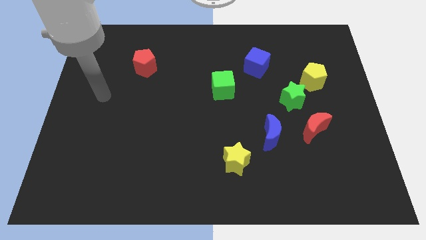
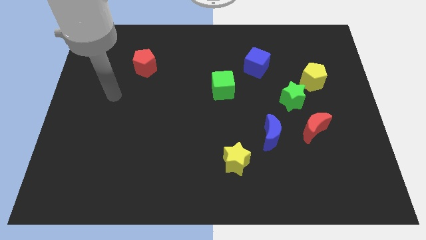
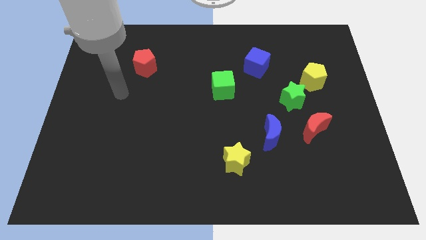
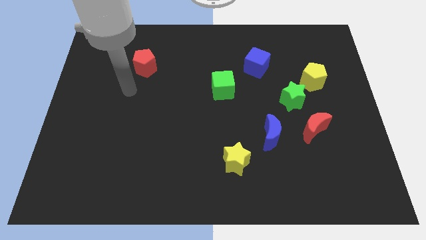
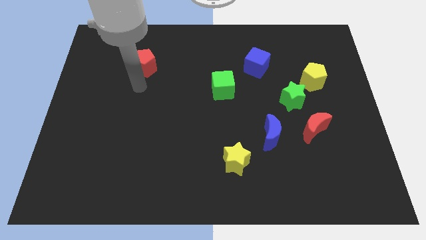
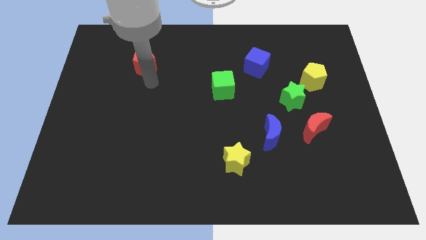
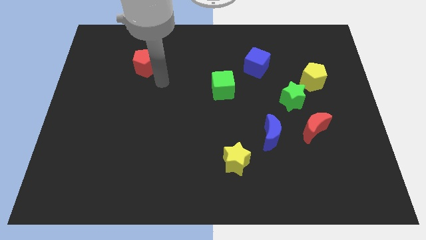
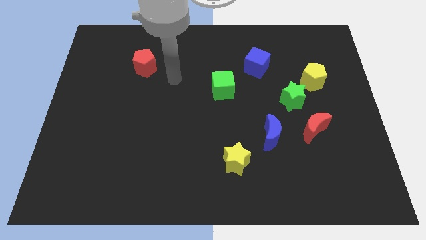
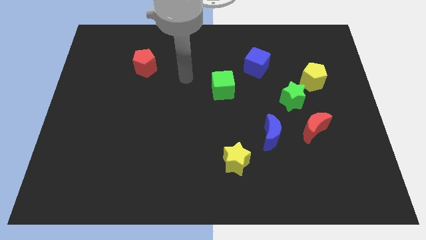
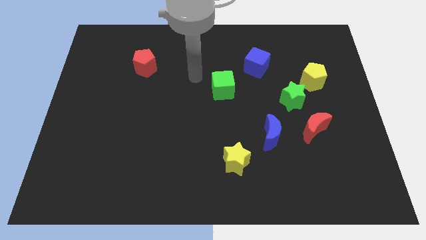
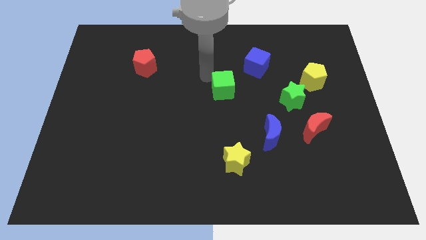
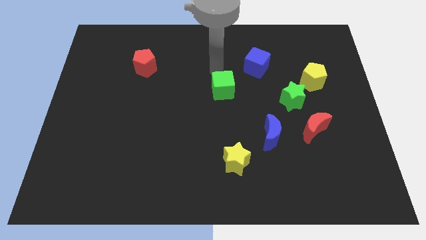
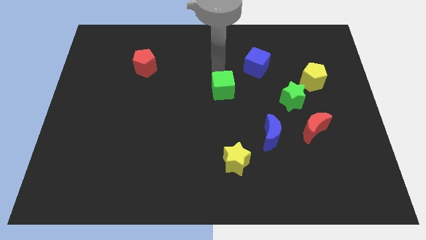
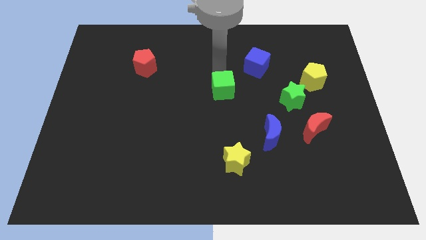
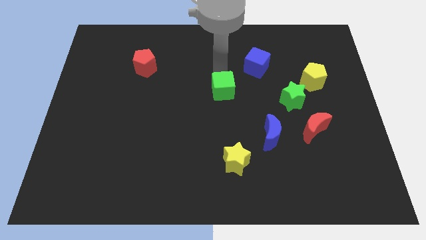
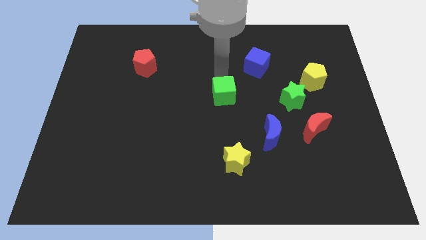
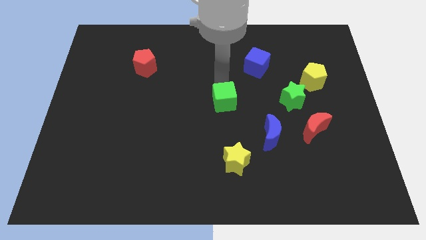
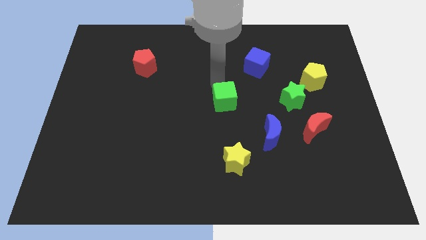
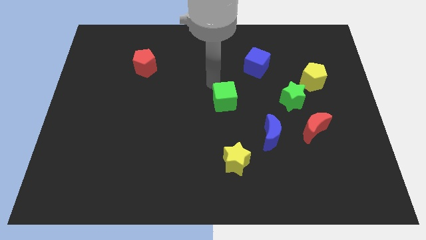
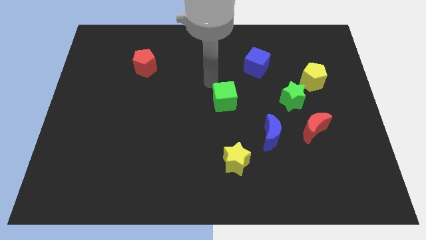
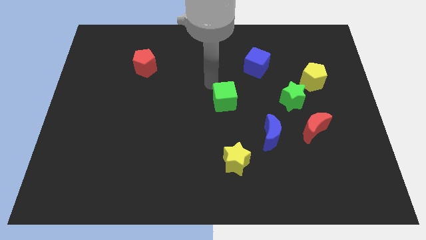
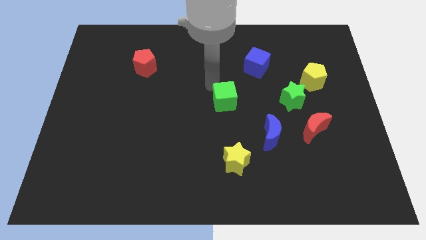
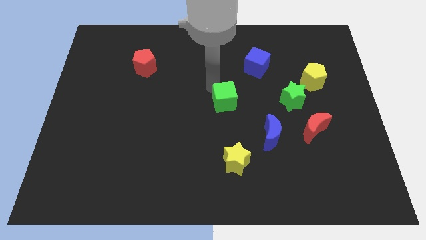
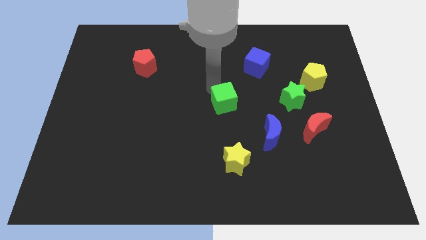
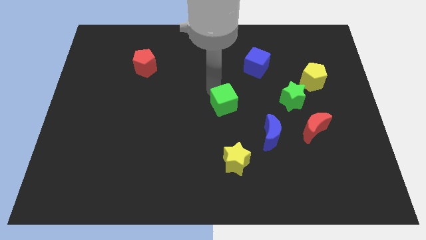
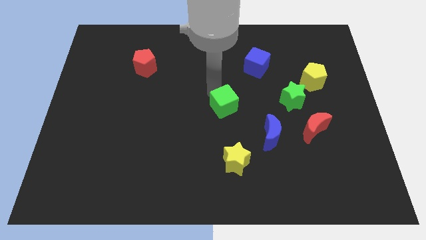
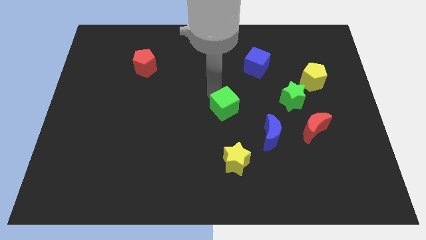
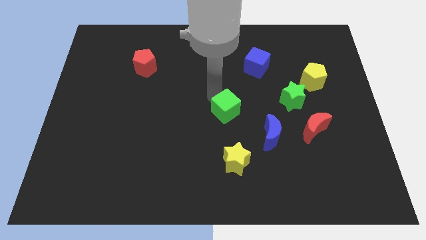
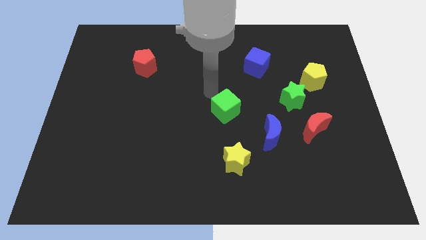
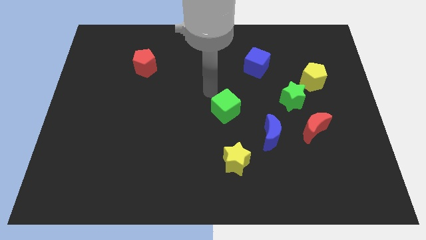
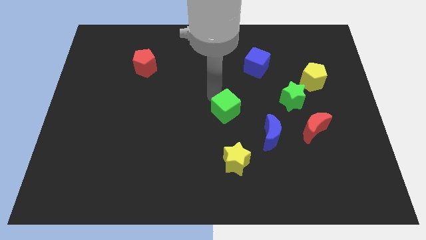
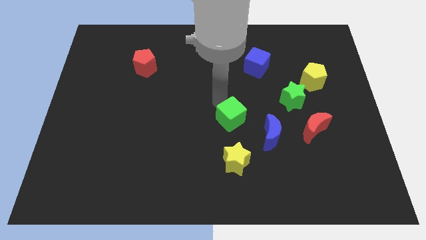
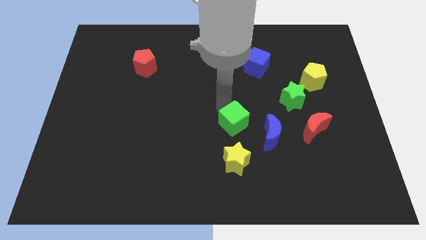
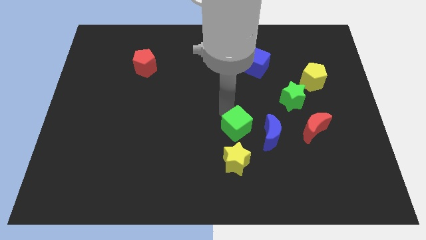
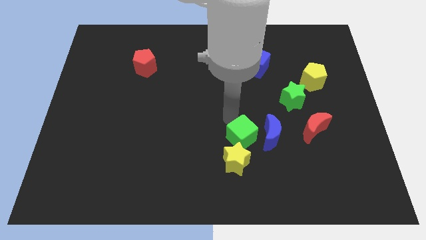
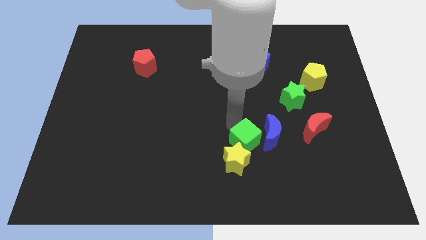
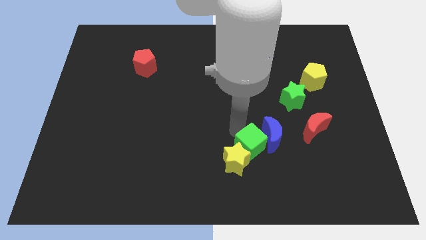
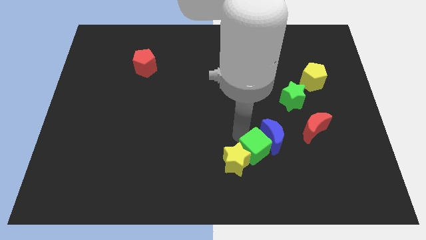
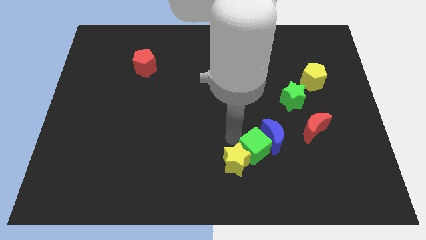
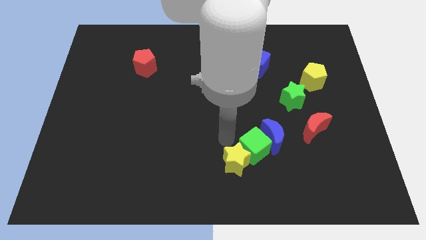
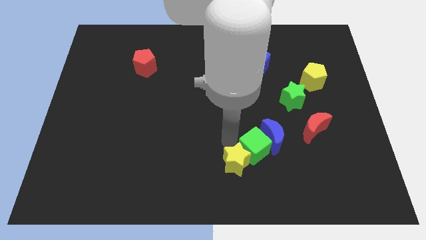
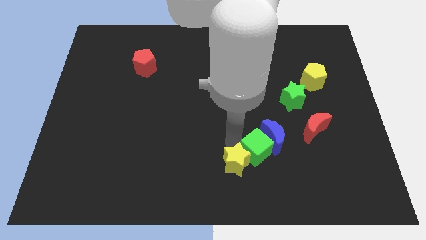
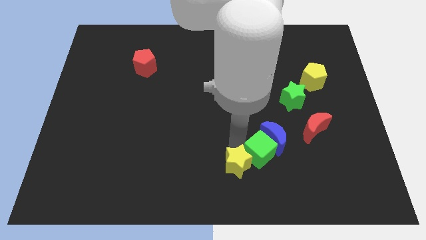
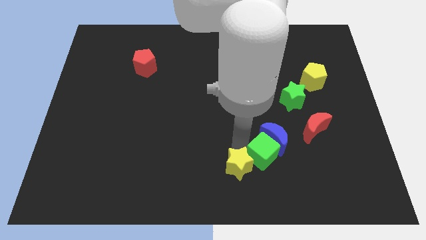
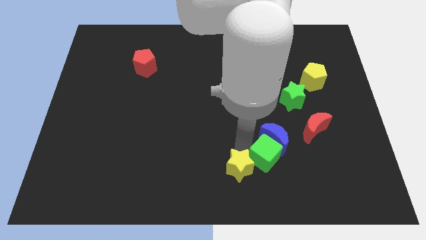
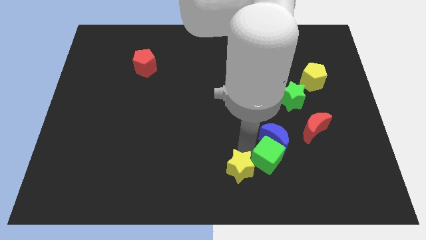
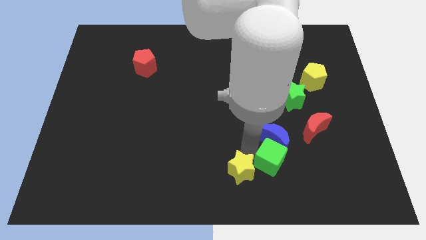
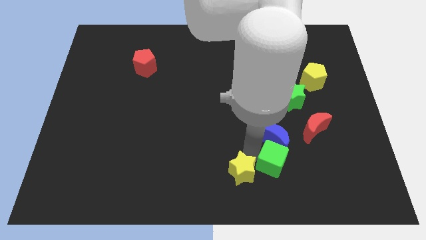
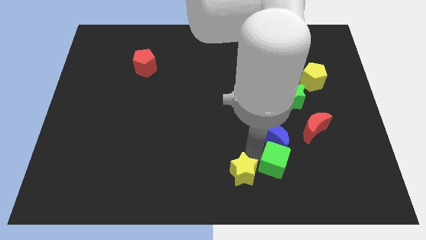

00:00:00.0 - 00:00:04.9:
move the green cube downwards and then right

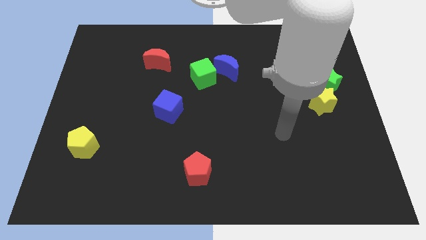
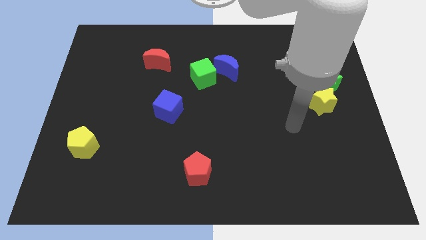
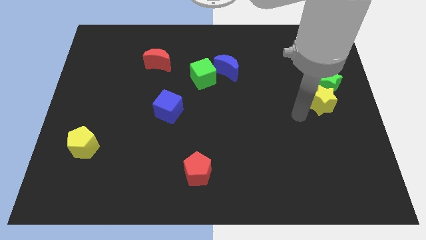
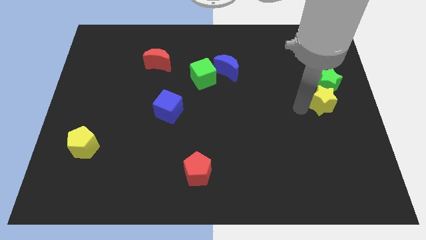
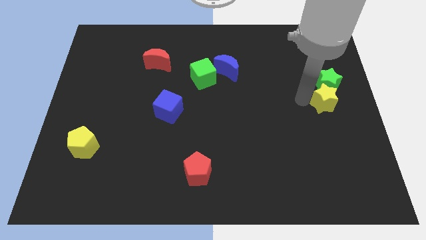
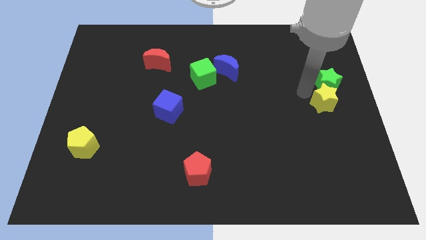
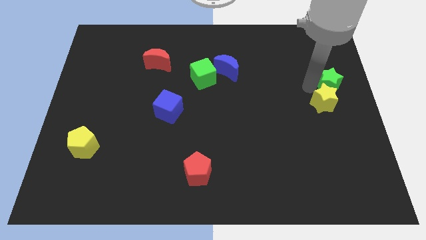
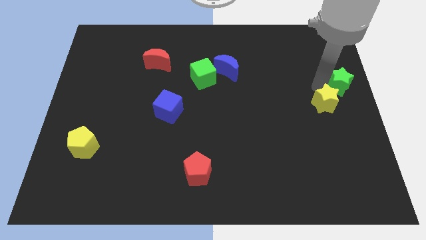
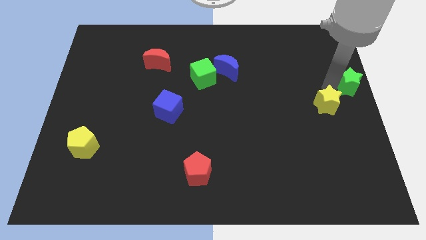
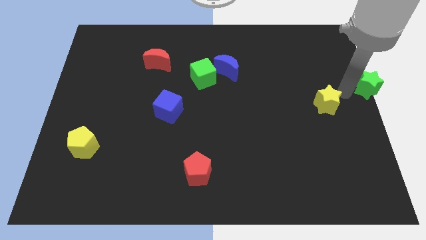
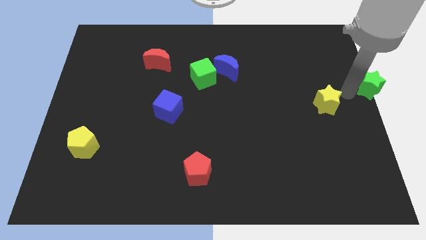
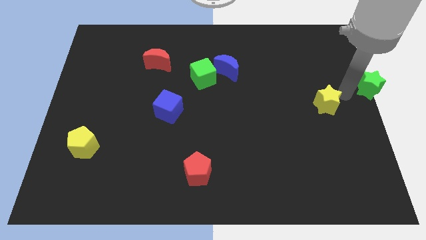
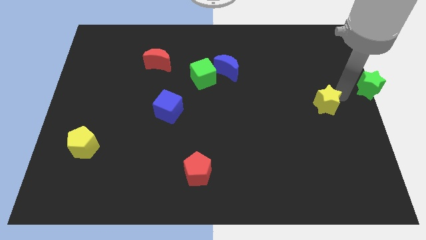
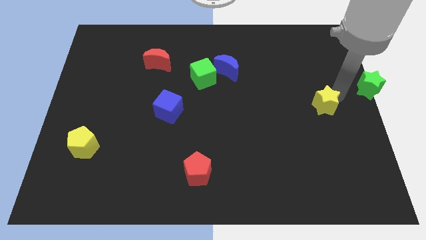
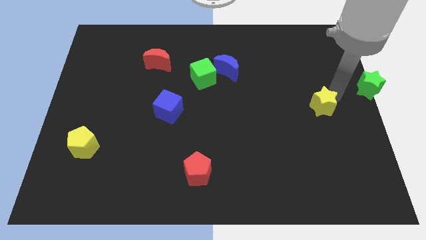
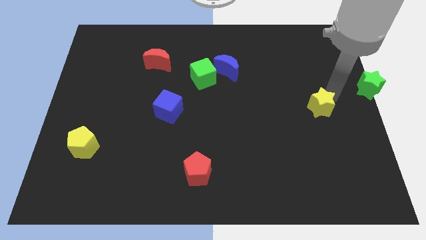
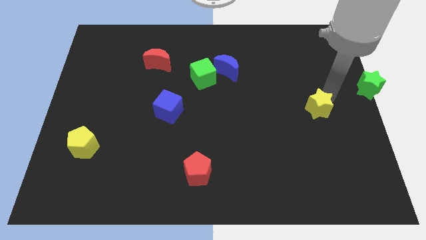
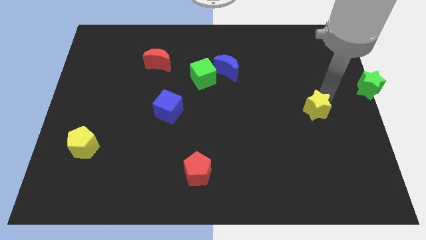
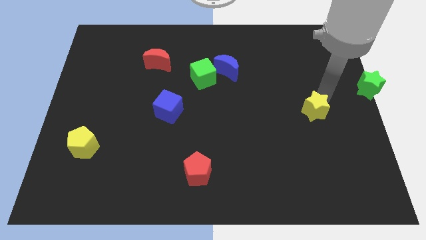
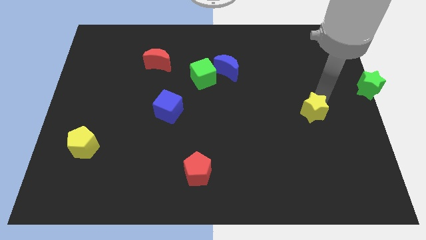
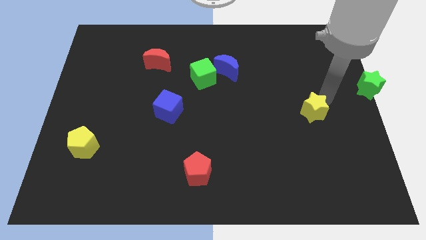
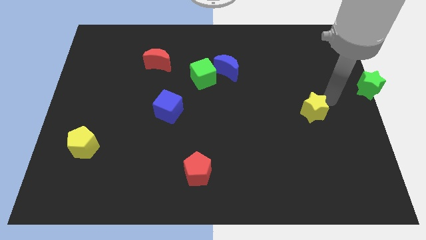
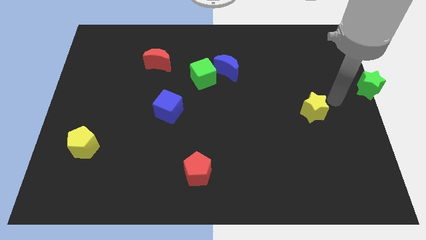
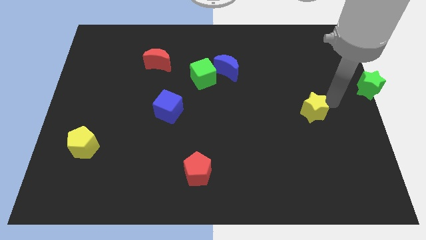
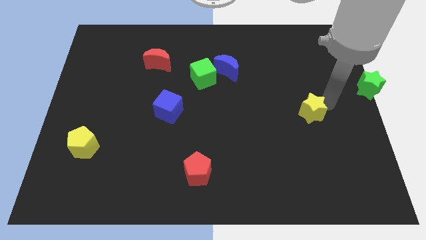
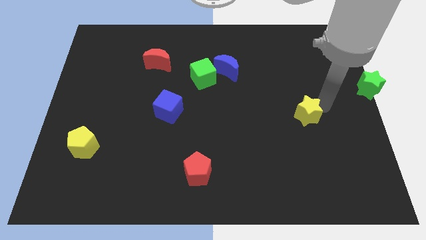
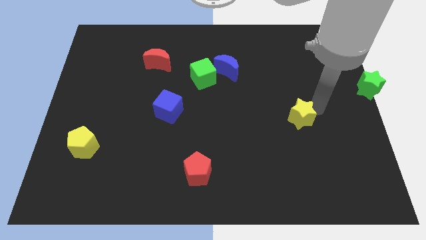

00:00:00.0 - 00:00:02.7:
move the yellow star somewhat diagonally downwards and to the left

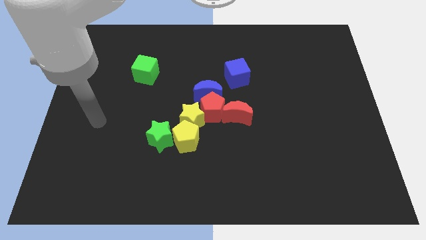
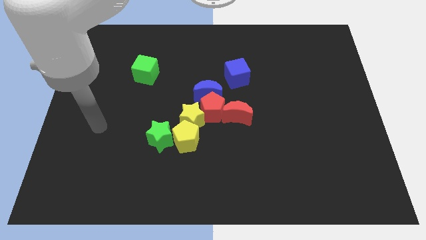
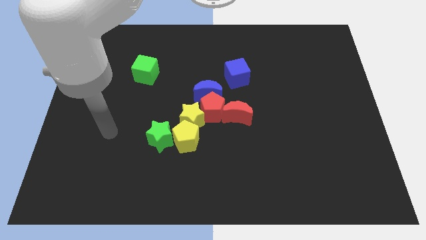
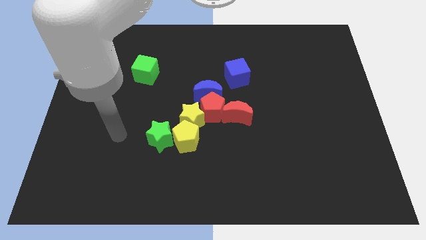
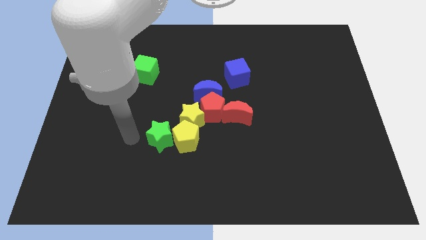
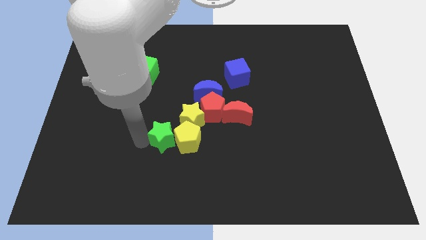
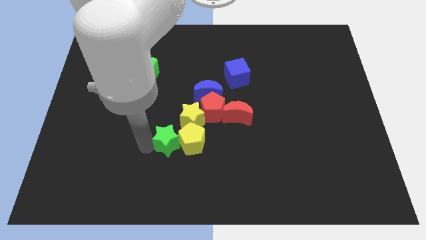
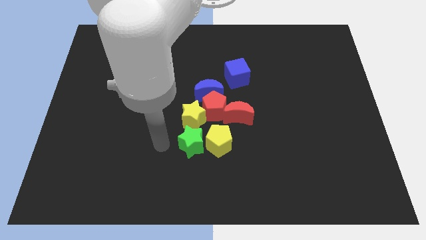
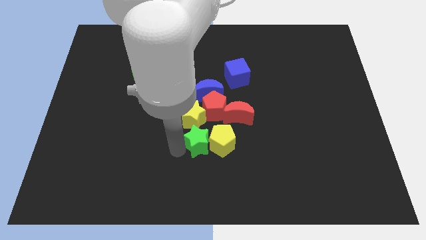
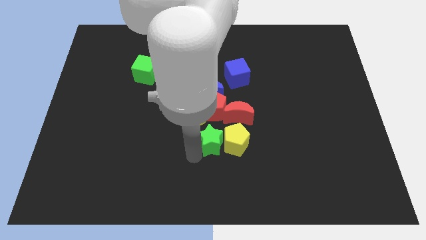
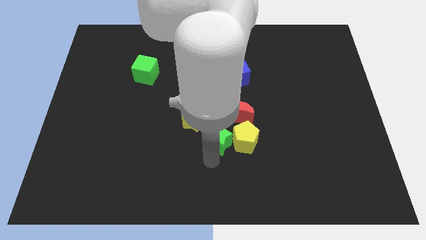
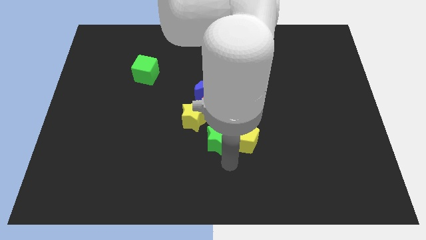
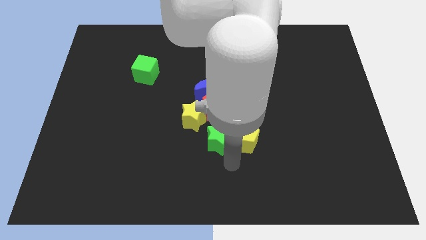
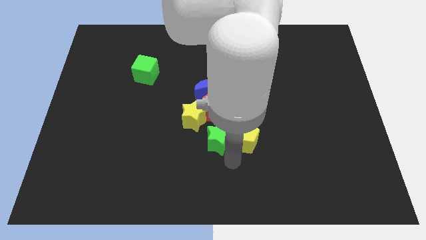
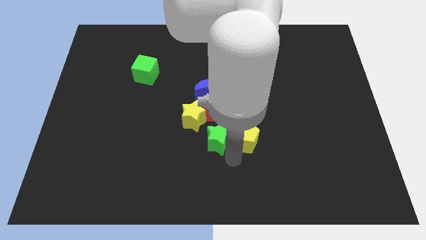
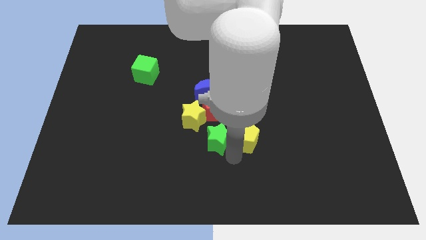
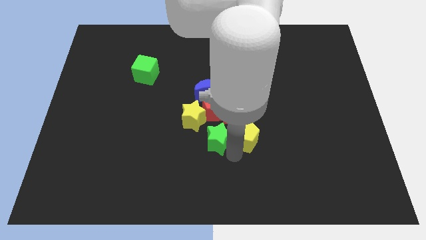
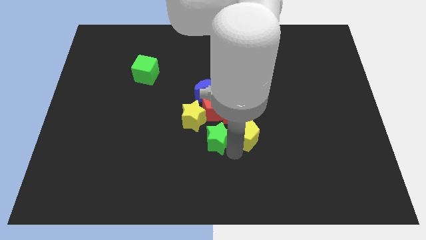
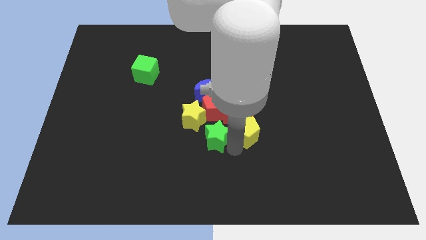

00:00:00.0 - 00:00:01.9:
move the yellow pentagon slightly diagonally upwards and to the right
